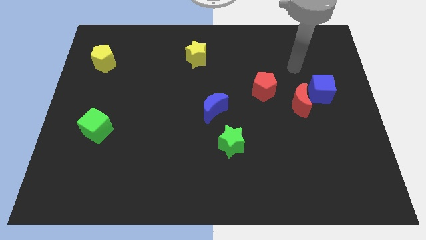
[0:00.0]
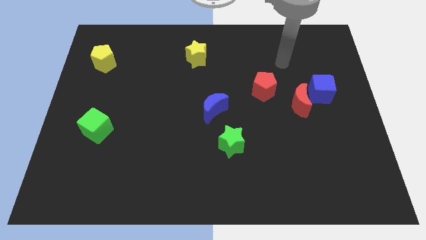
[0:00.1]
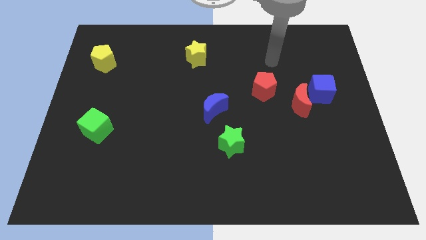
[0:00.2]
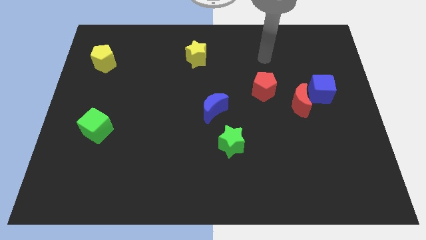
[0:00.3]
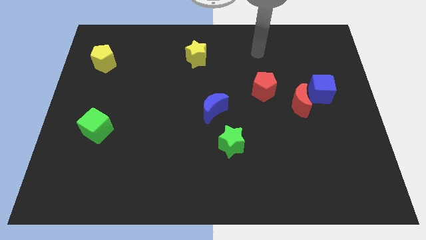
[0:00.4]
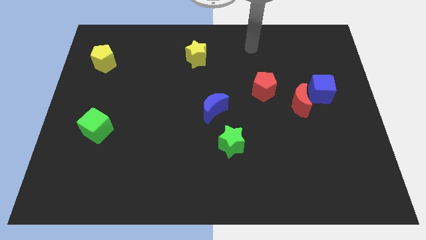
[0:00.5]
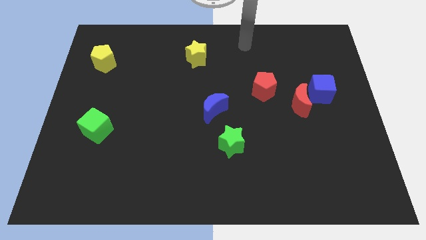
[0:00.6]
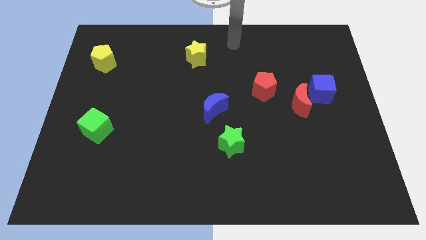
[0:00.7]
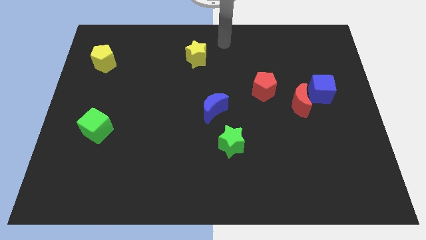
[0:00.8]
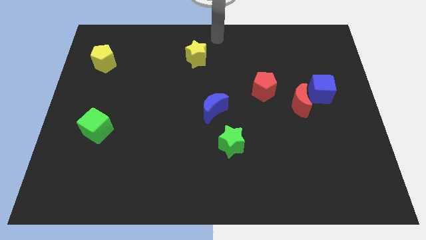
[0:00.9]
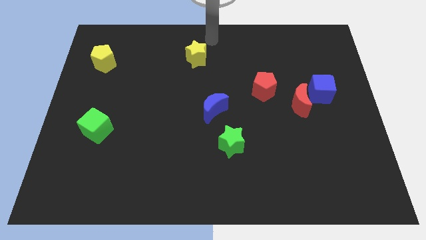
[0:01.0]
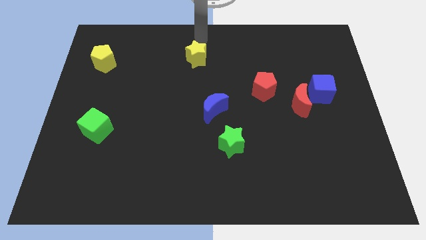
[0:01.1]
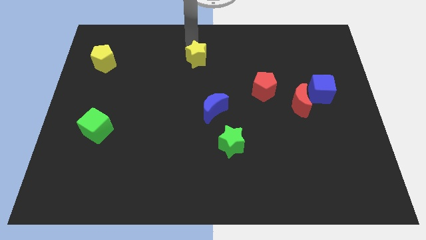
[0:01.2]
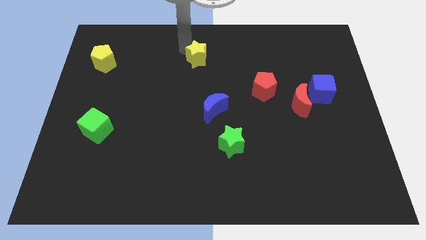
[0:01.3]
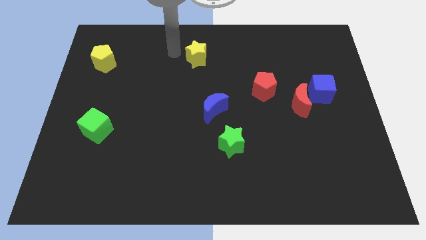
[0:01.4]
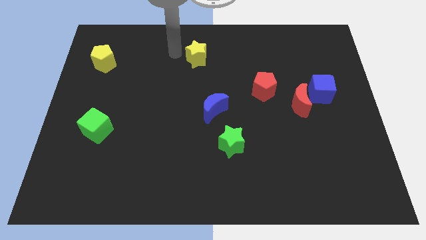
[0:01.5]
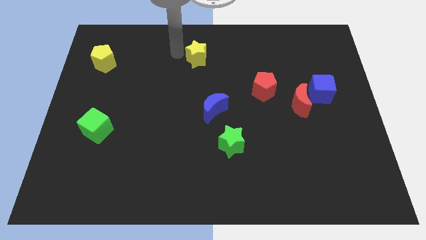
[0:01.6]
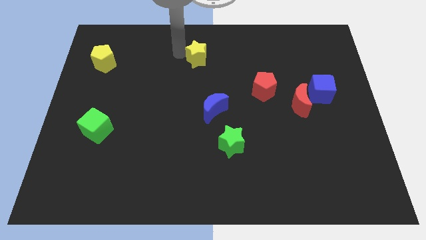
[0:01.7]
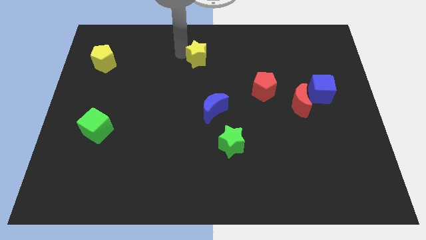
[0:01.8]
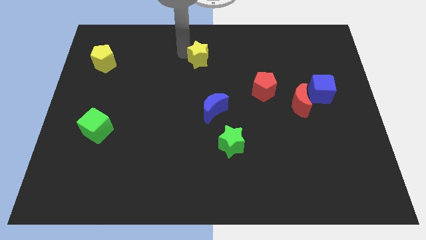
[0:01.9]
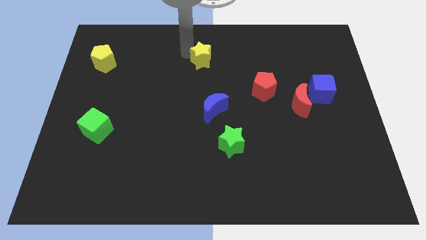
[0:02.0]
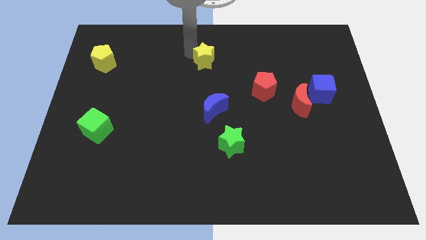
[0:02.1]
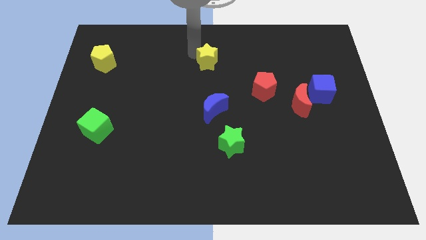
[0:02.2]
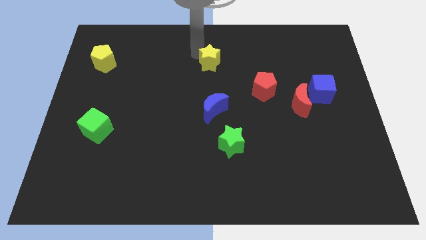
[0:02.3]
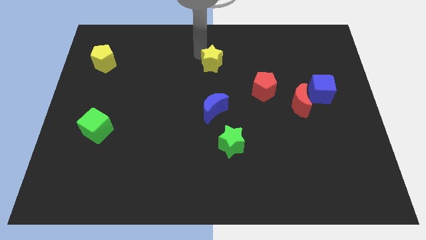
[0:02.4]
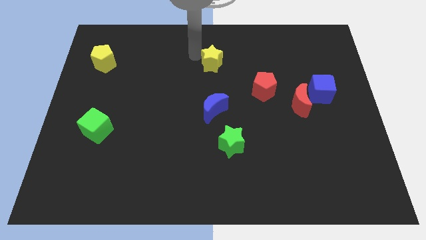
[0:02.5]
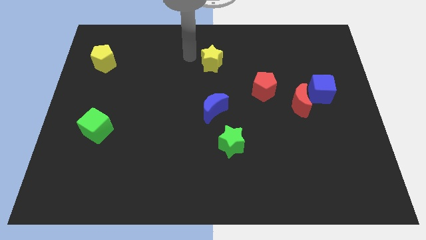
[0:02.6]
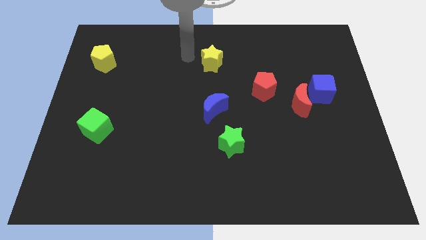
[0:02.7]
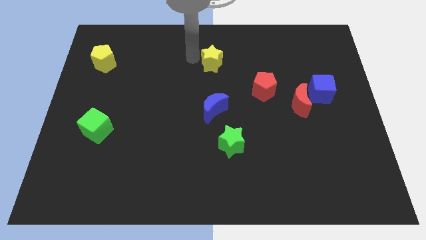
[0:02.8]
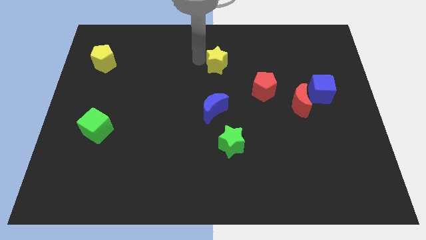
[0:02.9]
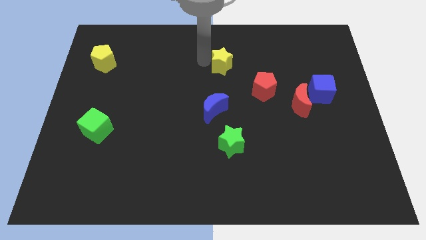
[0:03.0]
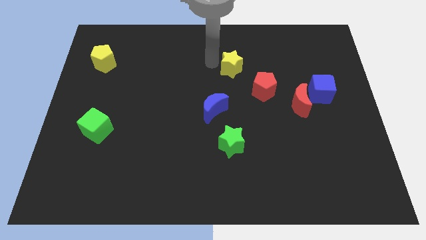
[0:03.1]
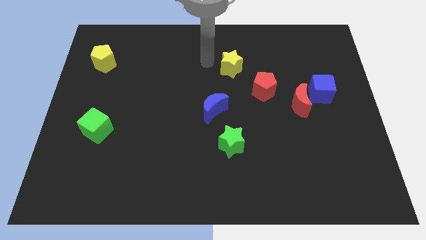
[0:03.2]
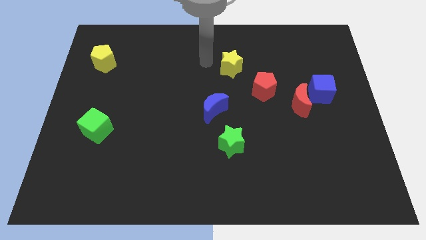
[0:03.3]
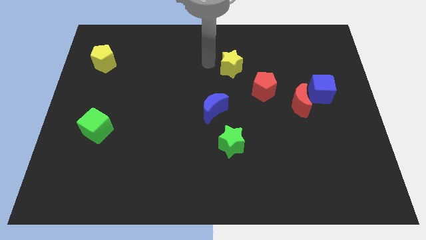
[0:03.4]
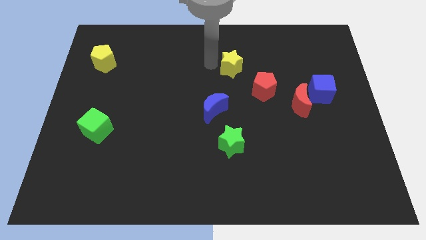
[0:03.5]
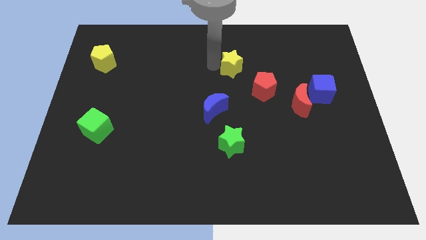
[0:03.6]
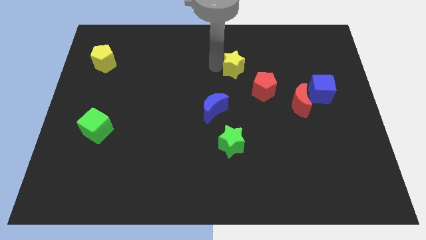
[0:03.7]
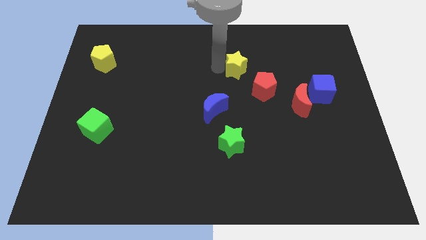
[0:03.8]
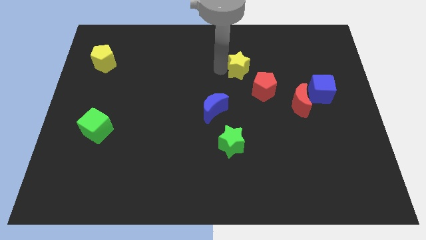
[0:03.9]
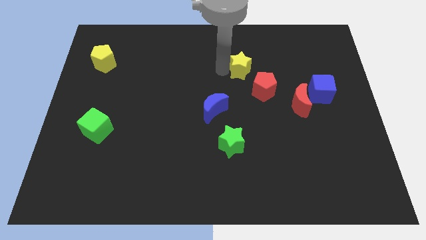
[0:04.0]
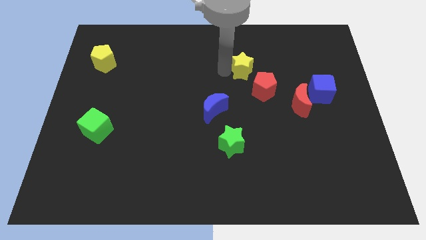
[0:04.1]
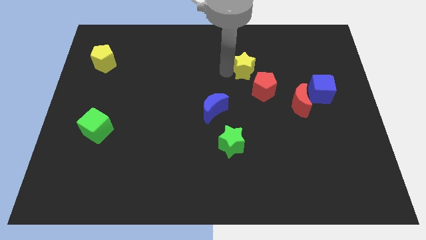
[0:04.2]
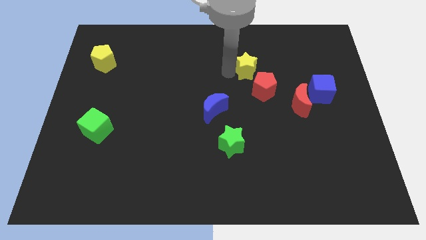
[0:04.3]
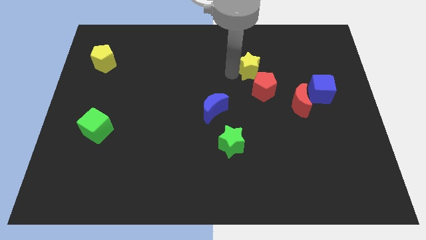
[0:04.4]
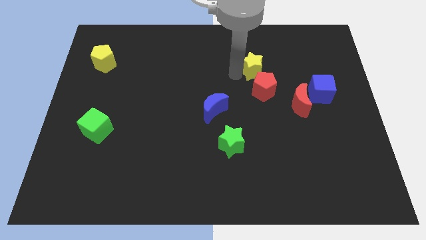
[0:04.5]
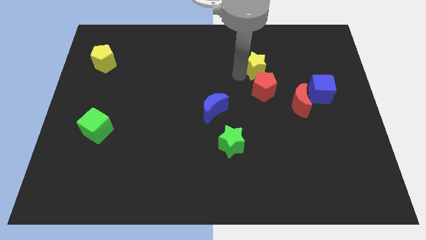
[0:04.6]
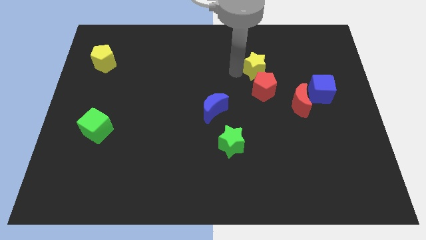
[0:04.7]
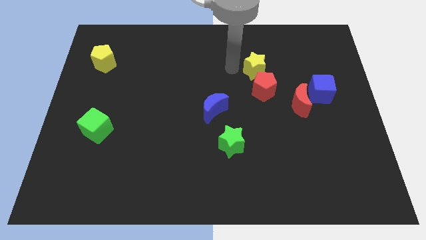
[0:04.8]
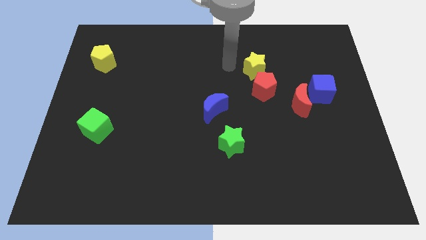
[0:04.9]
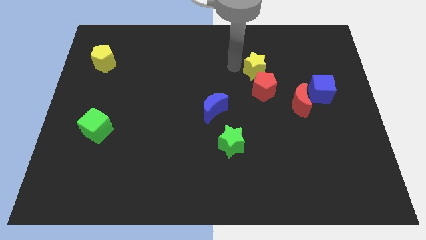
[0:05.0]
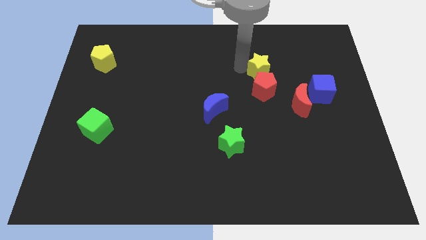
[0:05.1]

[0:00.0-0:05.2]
push the yellow star to the top right side of the red pentagon

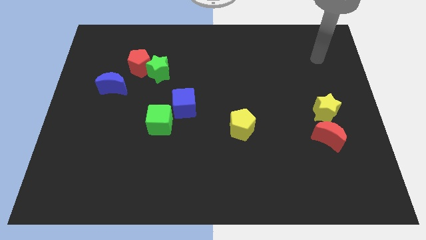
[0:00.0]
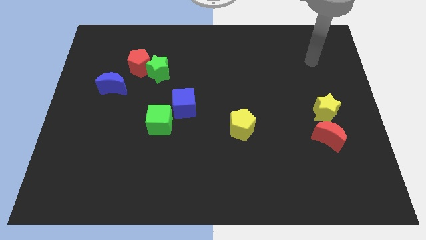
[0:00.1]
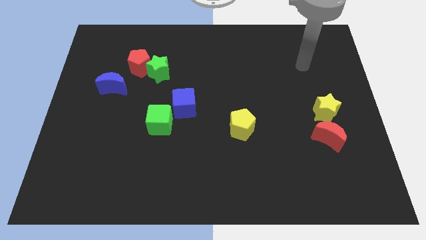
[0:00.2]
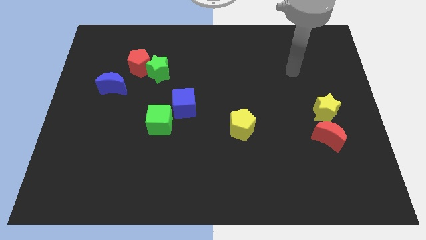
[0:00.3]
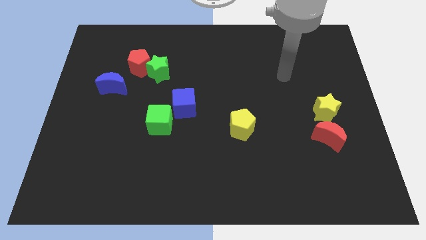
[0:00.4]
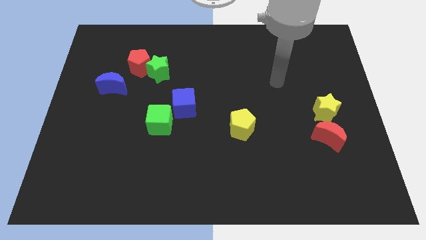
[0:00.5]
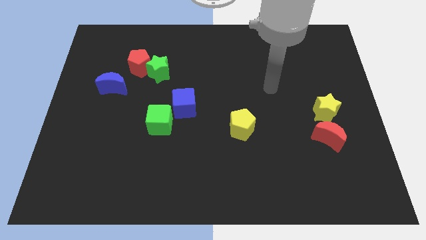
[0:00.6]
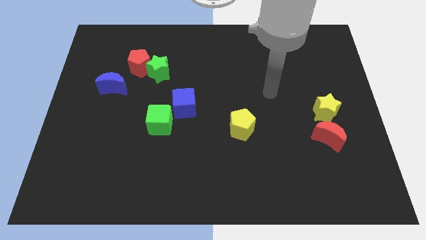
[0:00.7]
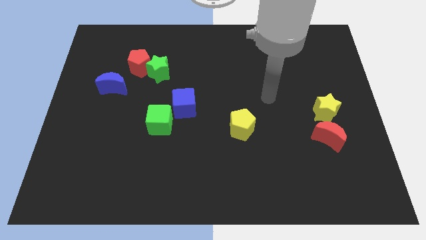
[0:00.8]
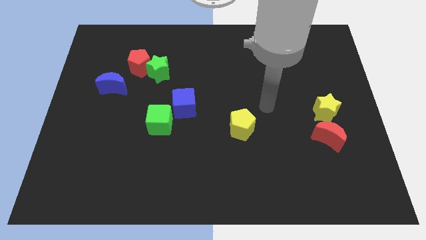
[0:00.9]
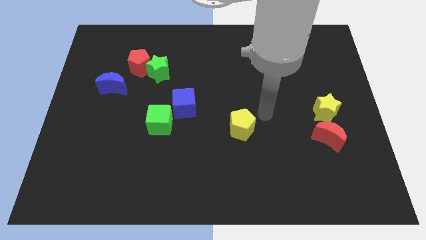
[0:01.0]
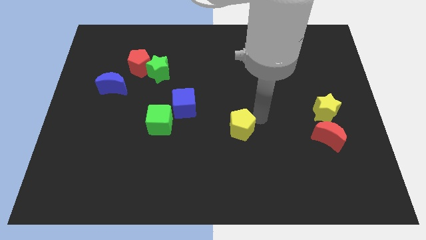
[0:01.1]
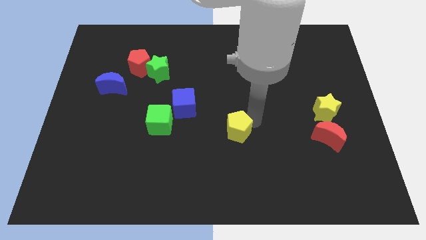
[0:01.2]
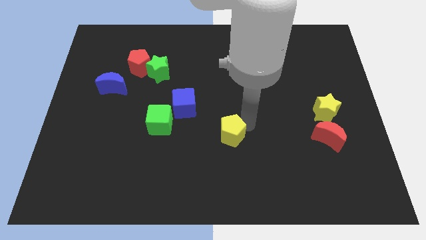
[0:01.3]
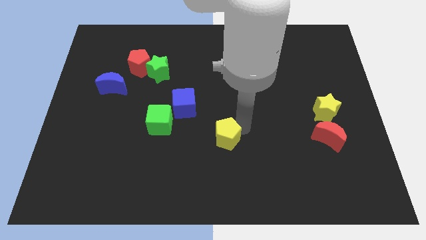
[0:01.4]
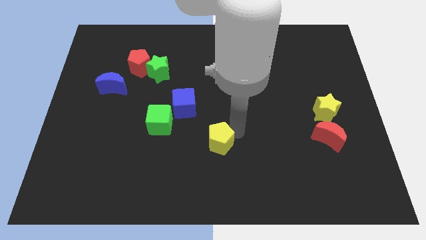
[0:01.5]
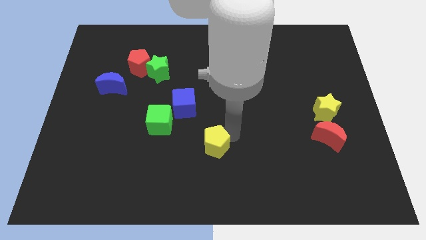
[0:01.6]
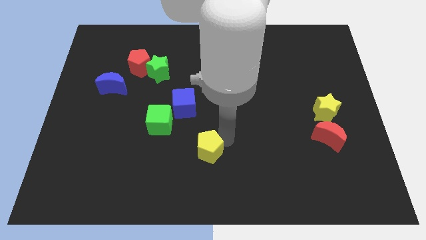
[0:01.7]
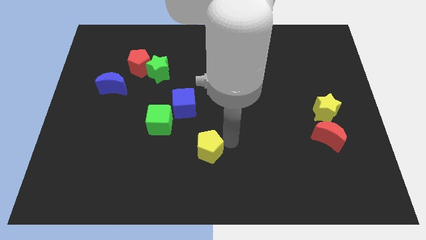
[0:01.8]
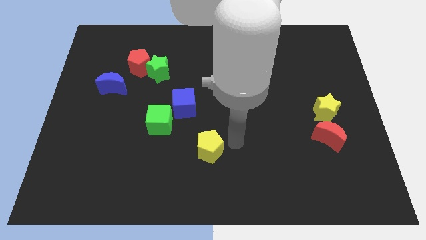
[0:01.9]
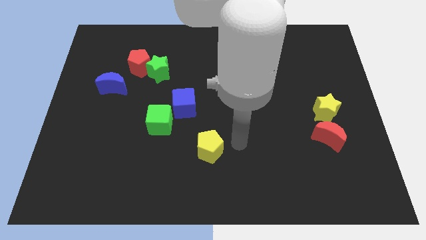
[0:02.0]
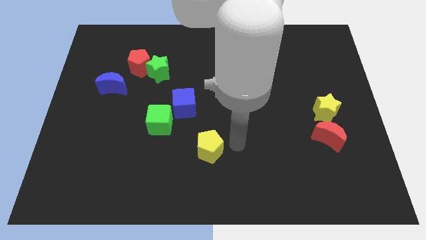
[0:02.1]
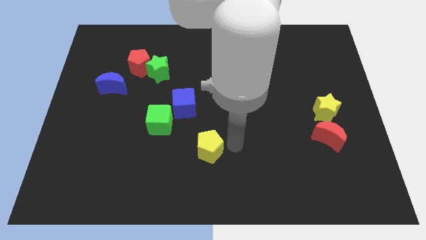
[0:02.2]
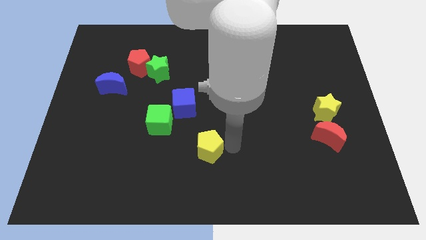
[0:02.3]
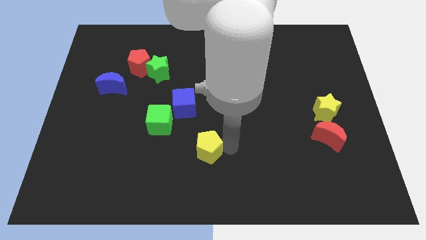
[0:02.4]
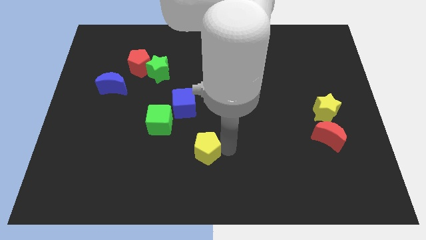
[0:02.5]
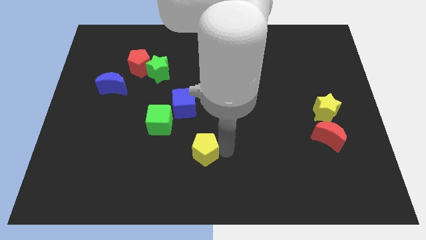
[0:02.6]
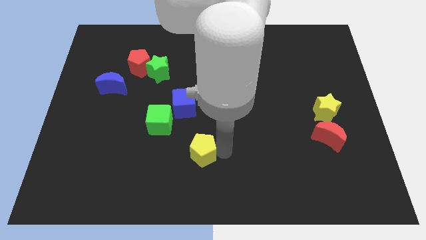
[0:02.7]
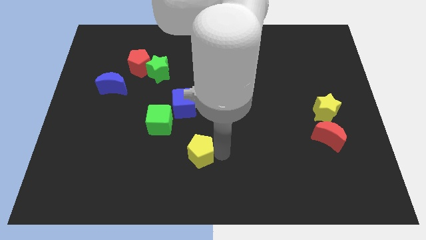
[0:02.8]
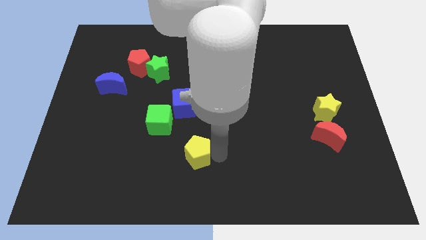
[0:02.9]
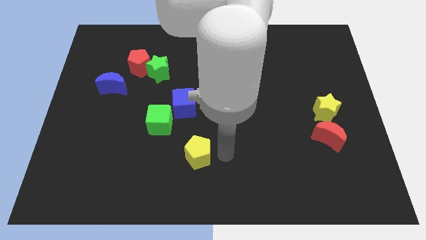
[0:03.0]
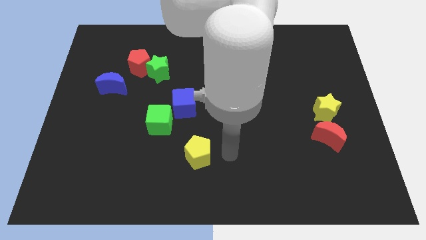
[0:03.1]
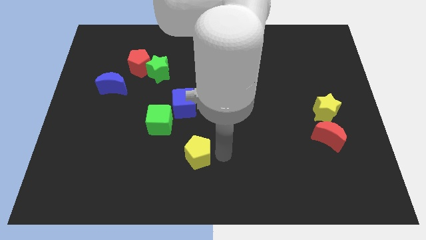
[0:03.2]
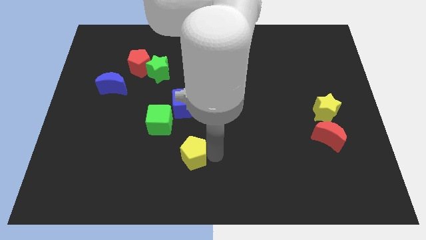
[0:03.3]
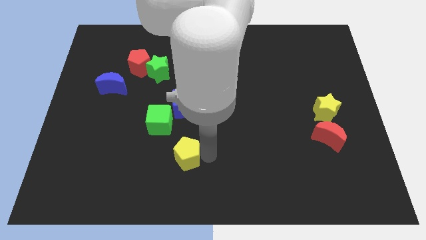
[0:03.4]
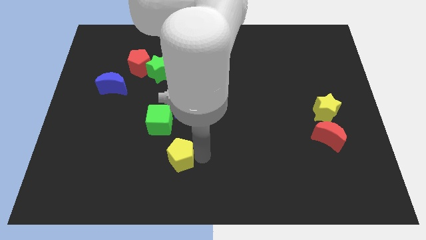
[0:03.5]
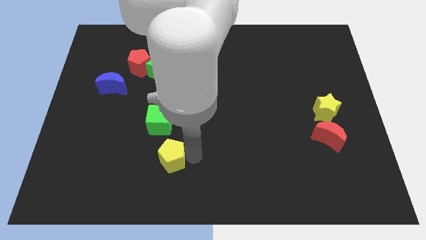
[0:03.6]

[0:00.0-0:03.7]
put the yellow pentagon to the bottom of the green cube
